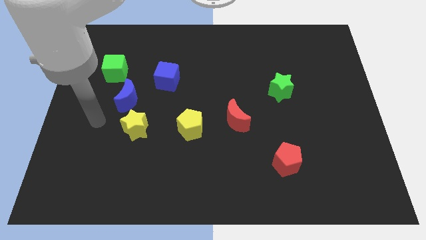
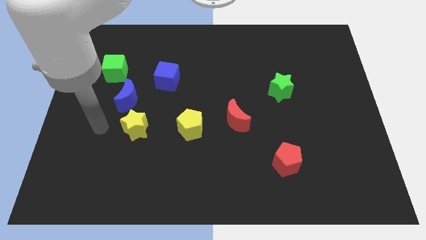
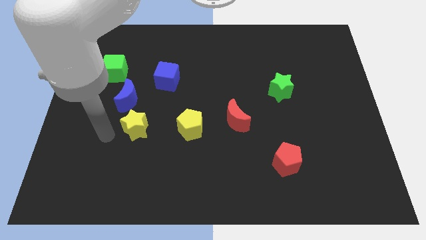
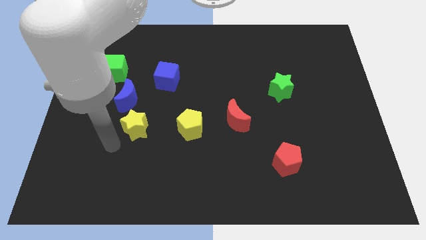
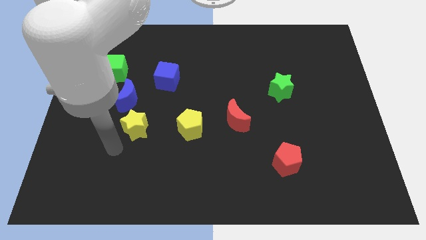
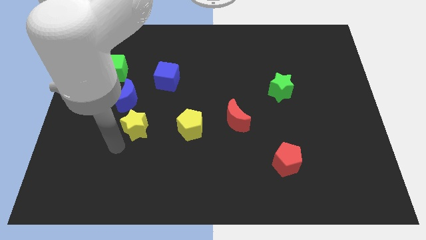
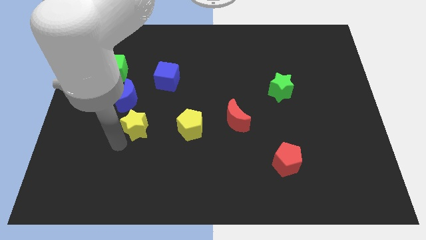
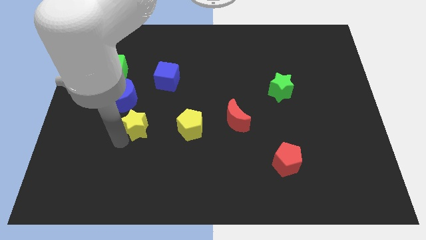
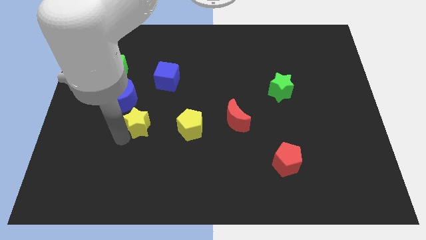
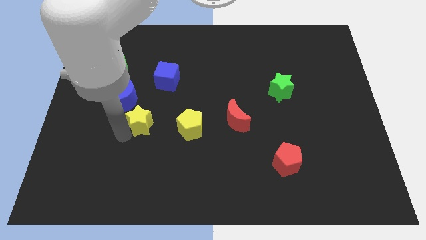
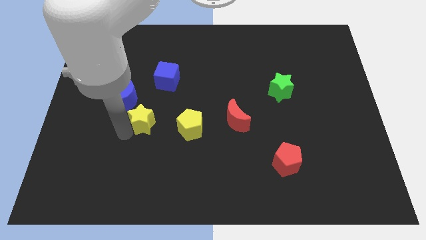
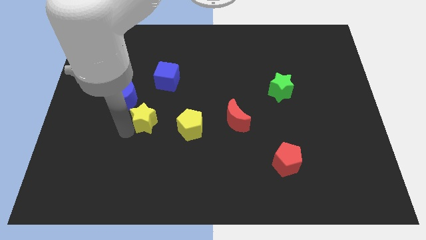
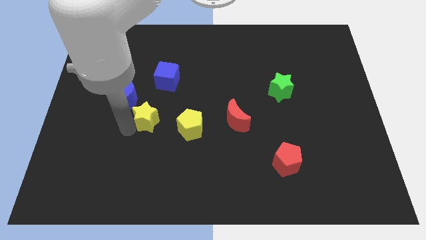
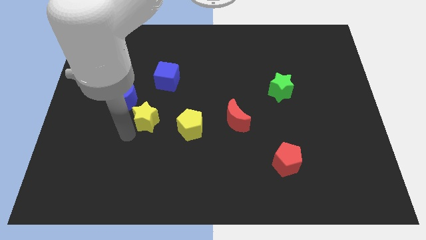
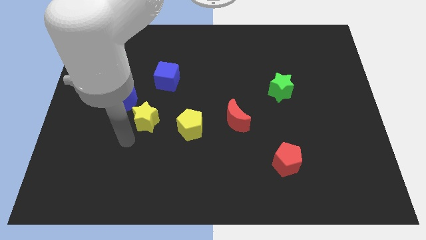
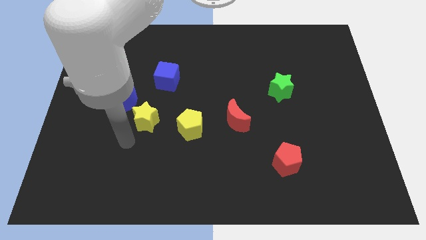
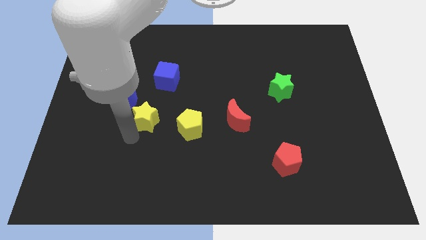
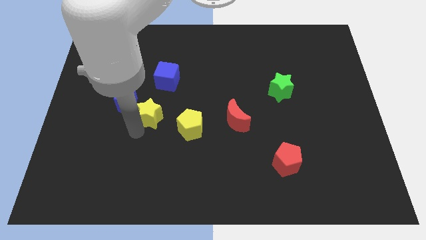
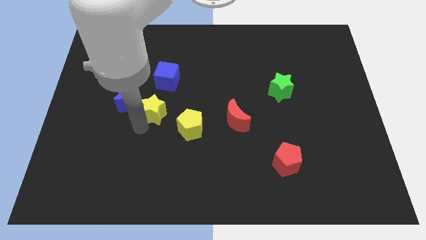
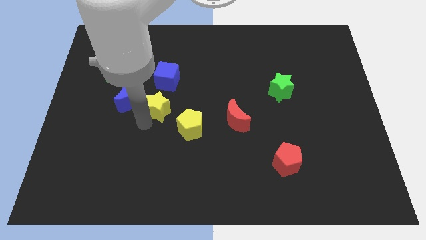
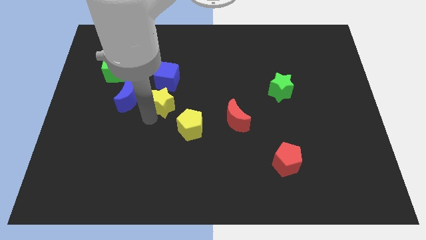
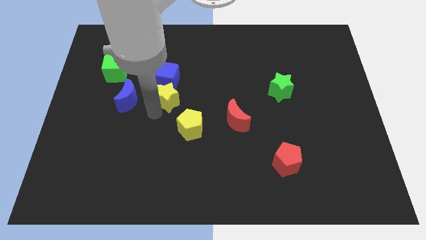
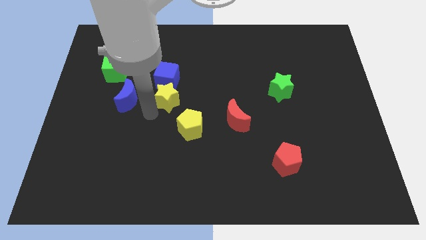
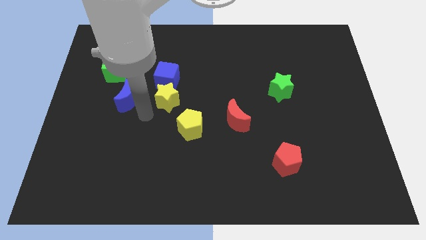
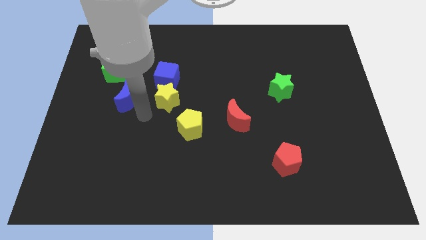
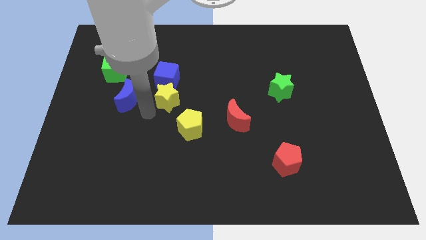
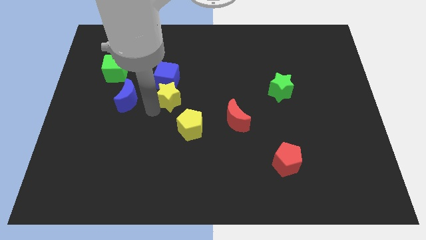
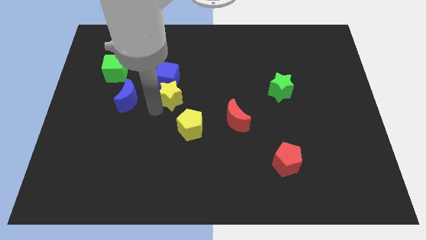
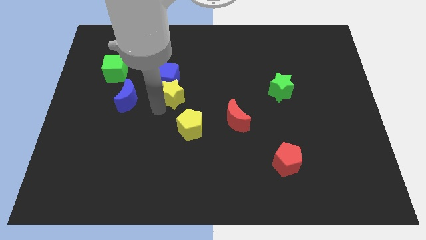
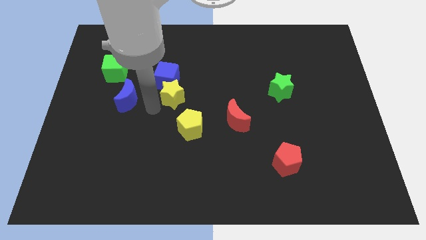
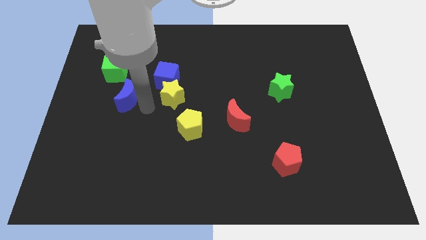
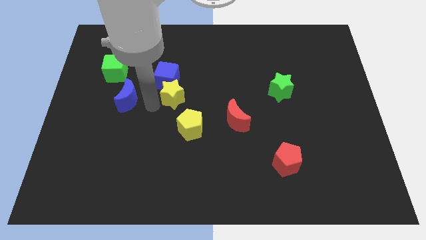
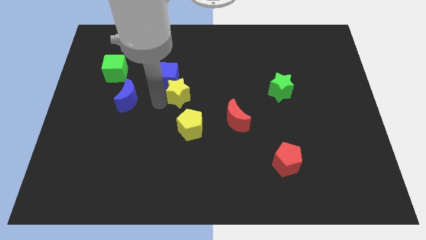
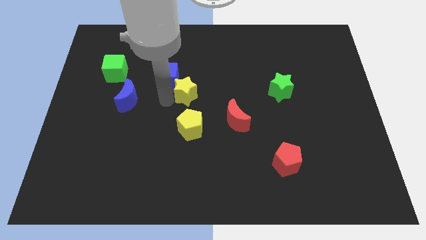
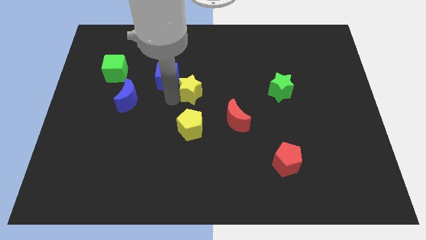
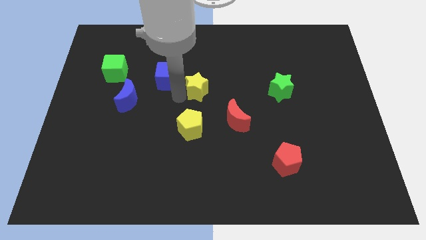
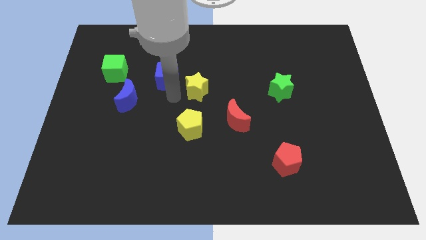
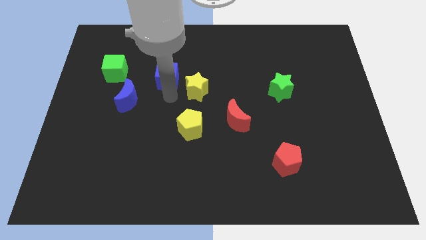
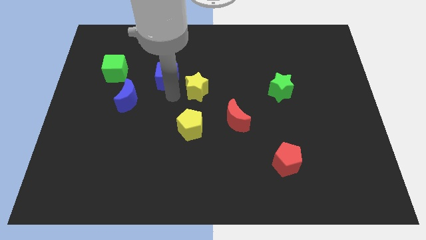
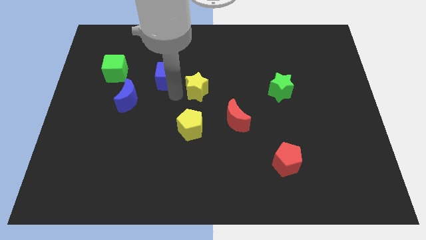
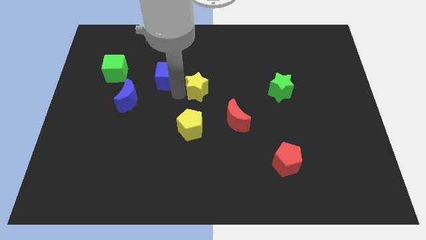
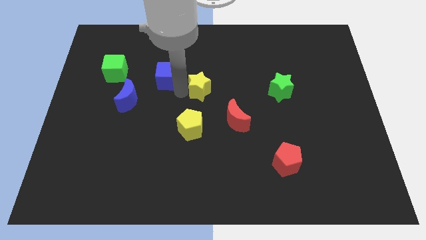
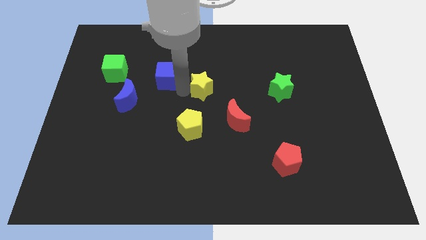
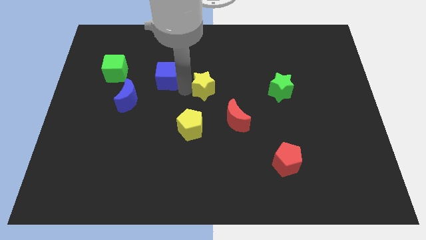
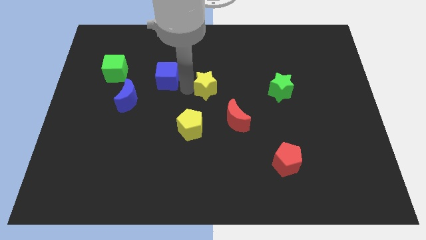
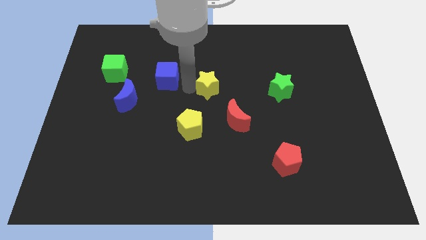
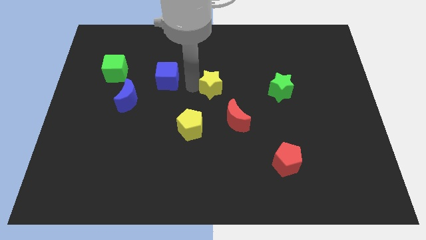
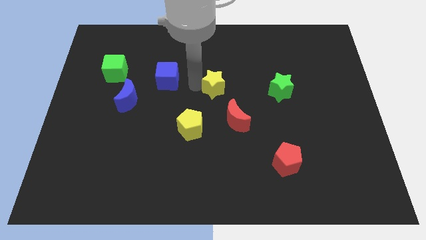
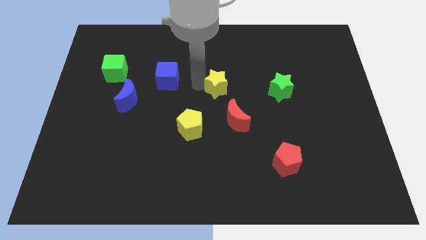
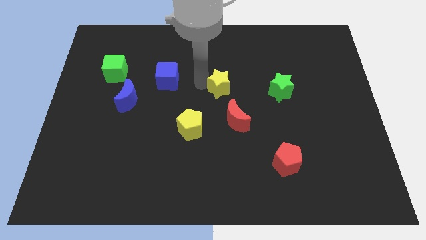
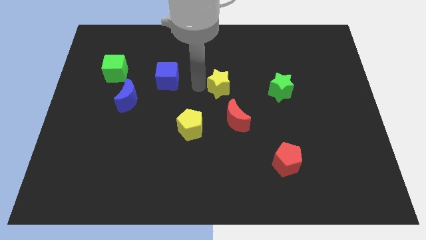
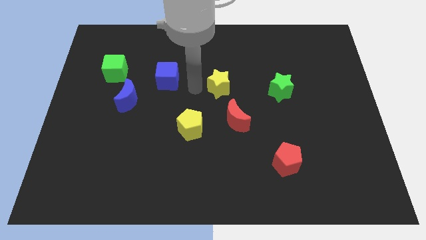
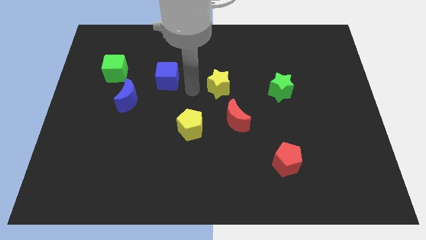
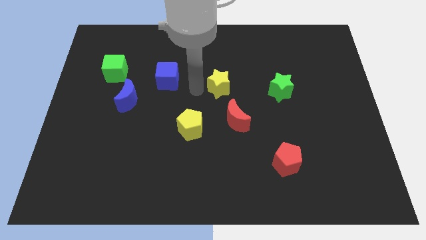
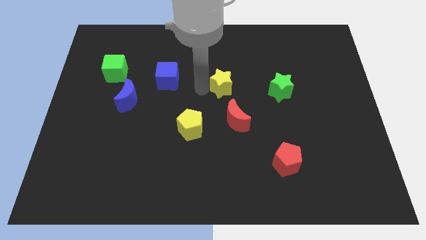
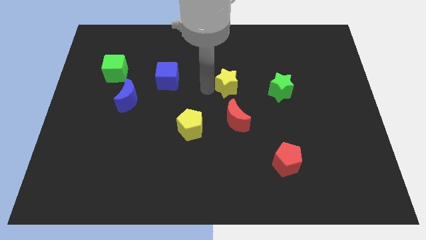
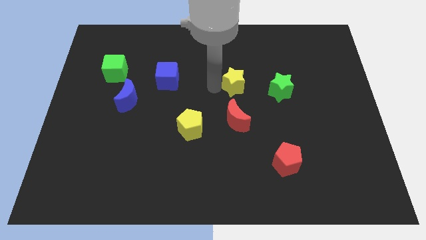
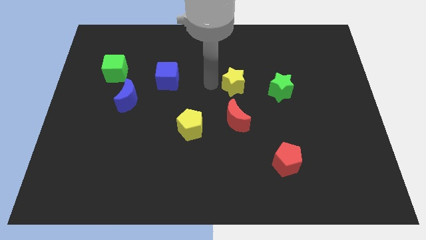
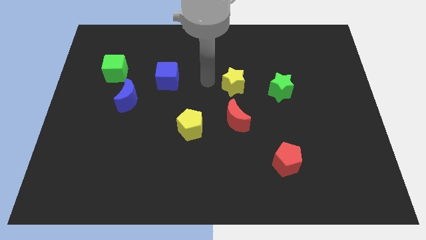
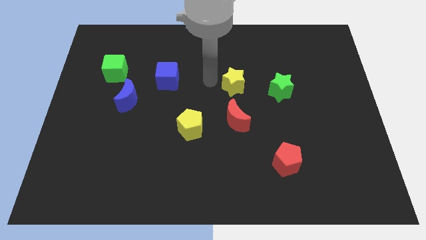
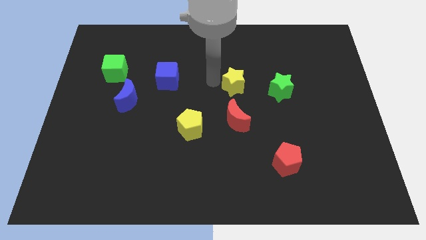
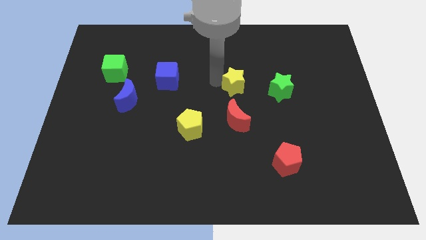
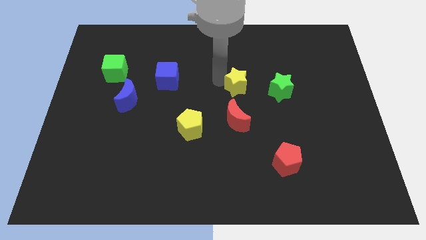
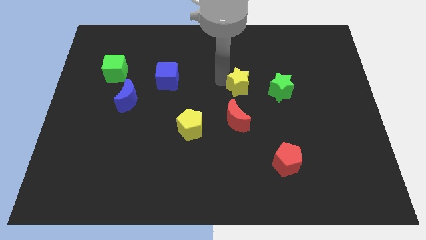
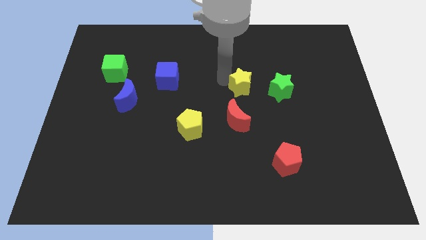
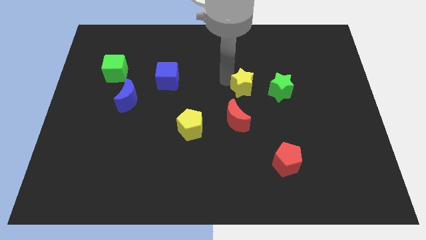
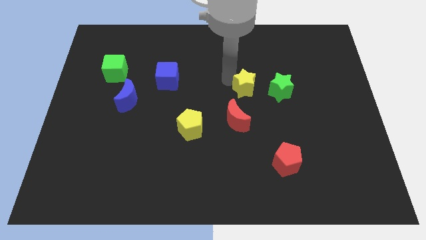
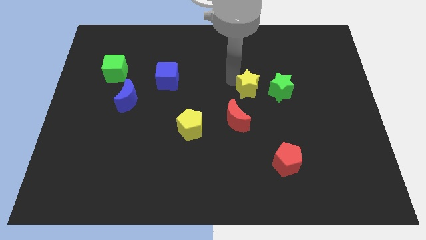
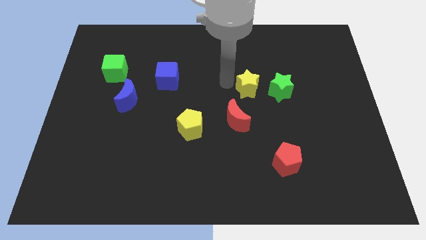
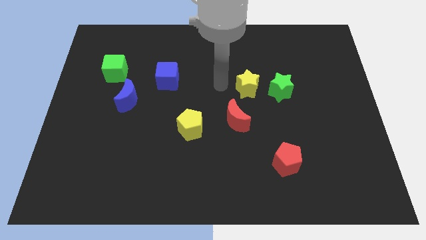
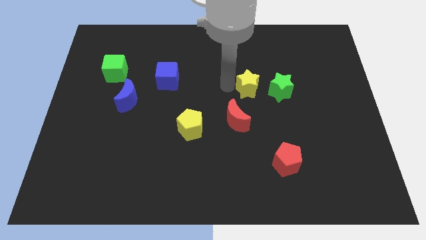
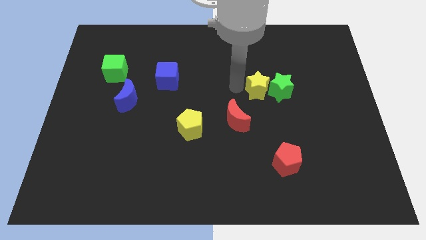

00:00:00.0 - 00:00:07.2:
put the yellow star close to the green star

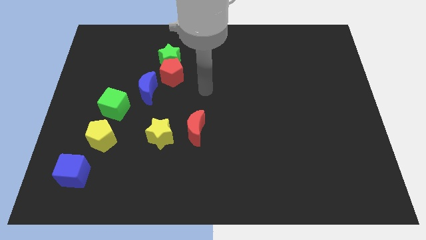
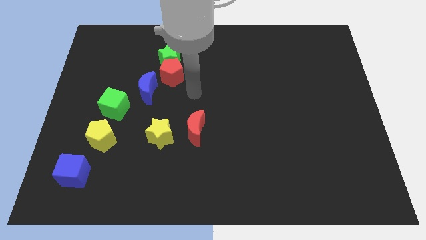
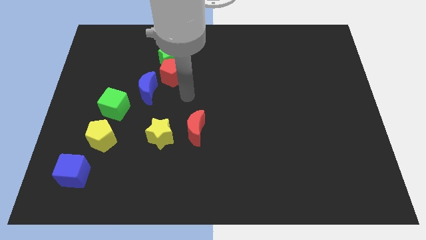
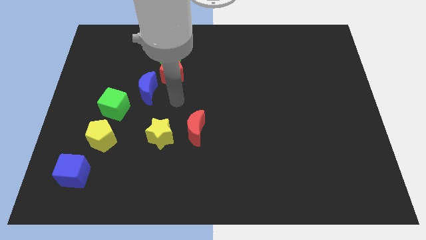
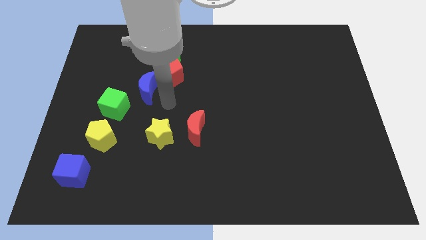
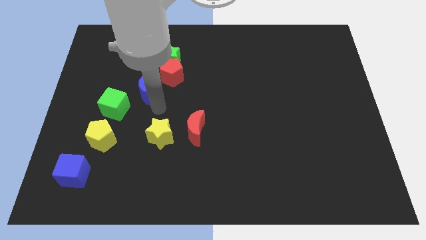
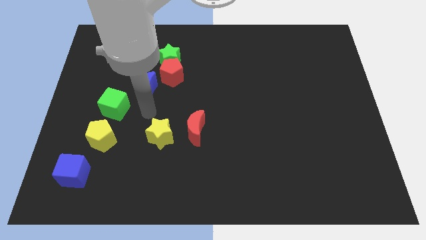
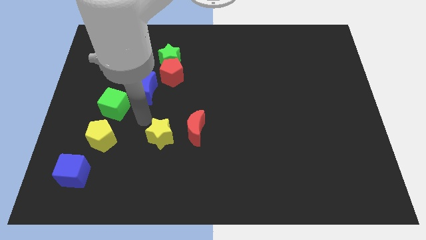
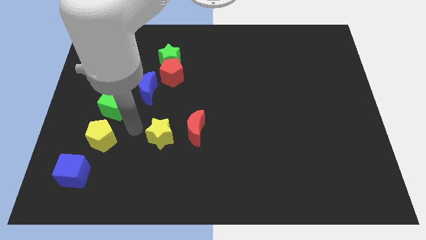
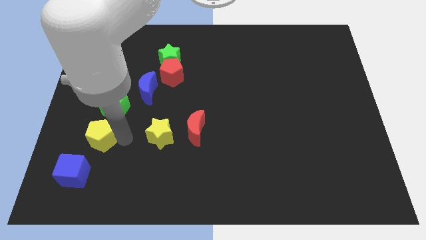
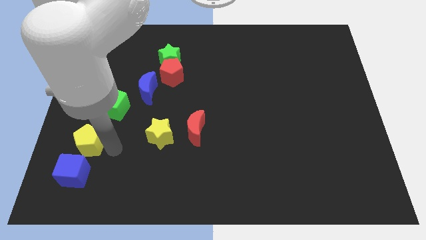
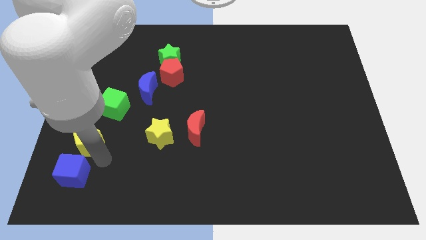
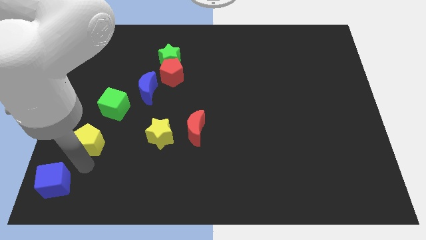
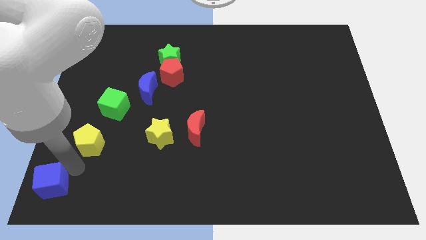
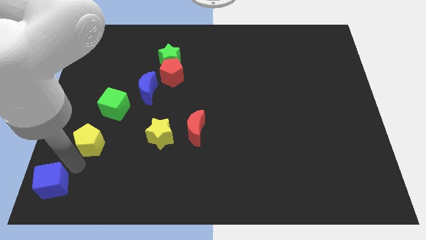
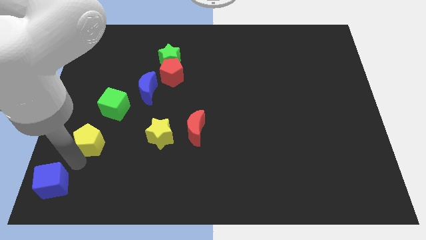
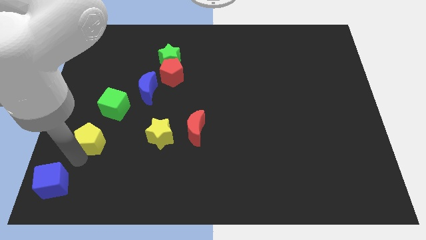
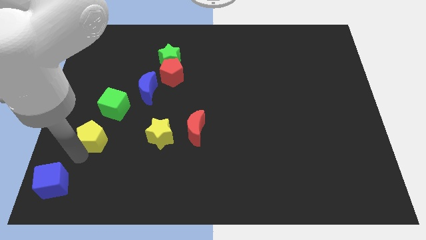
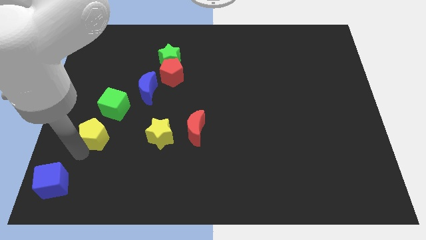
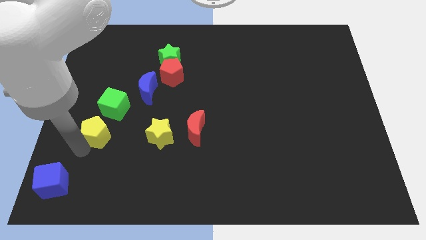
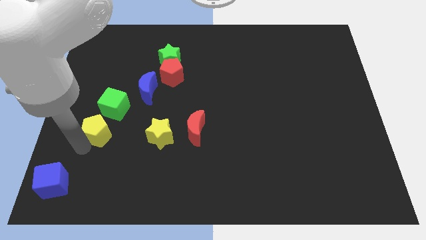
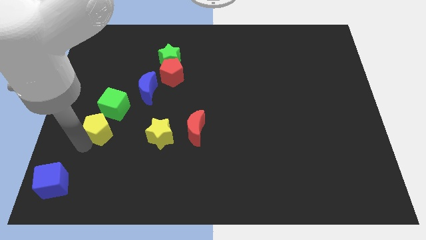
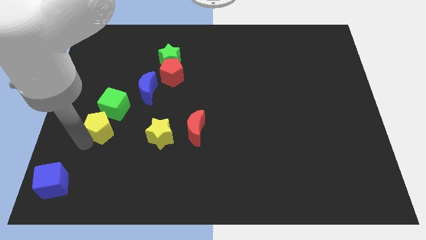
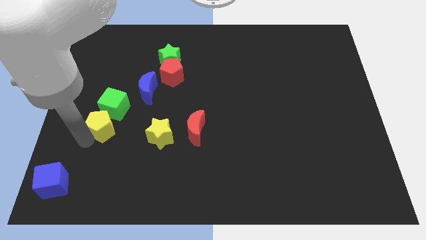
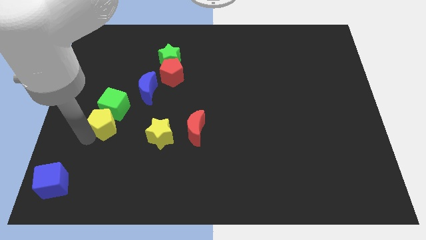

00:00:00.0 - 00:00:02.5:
put the yellow pentagon towards the green cube
